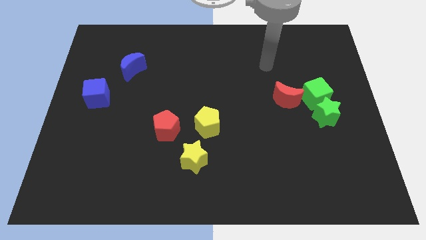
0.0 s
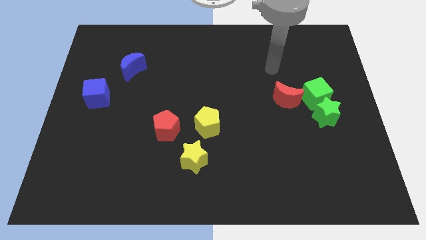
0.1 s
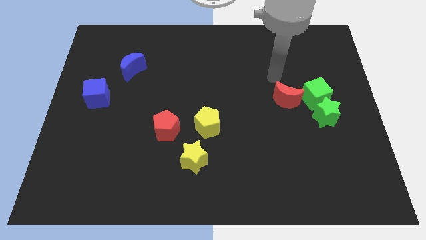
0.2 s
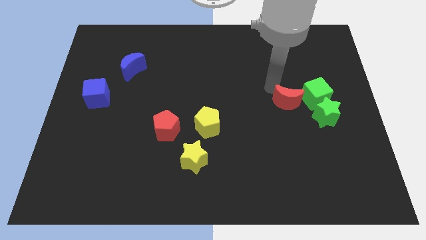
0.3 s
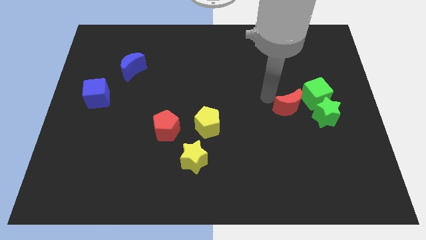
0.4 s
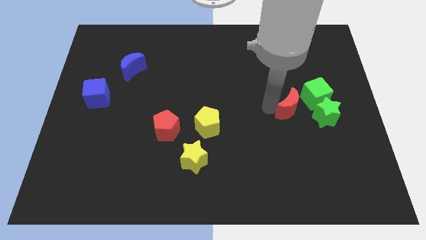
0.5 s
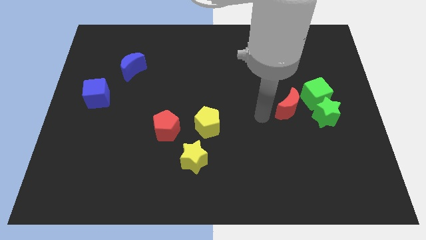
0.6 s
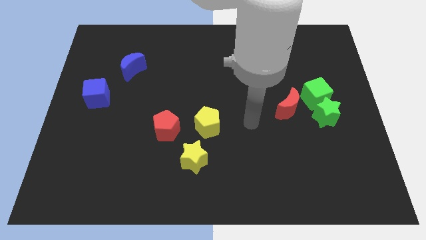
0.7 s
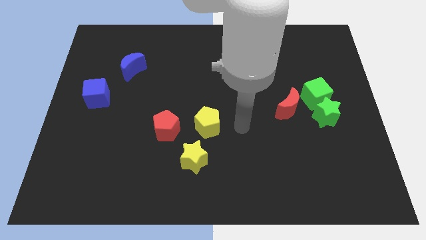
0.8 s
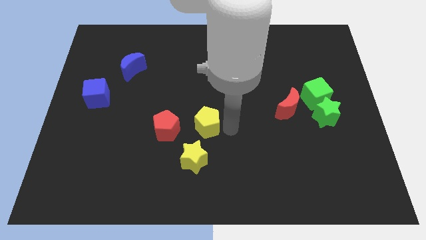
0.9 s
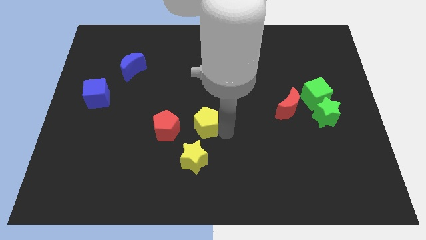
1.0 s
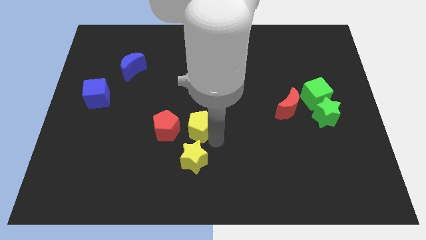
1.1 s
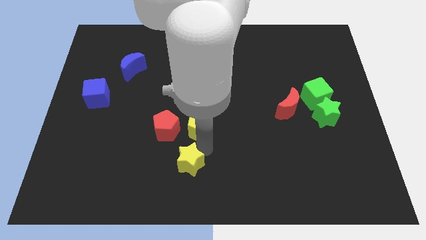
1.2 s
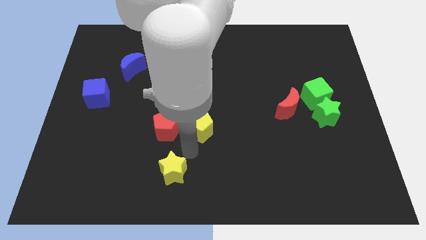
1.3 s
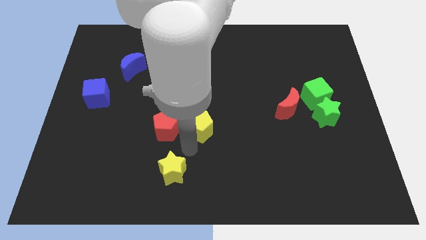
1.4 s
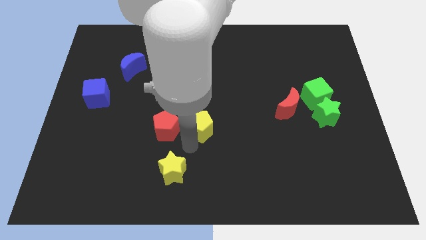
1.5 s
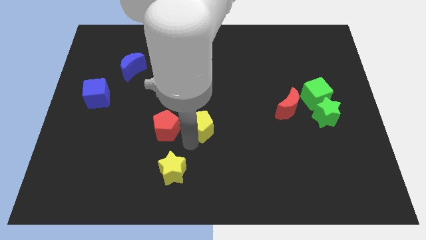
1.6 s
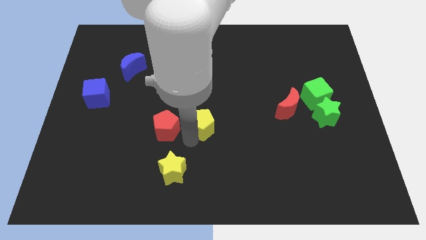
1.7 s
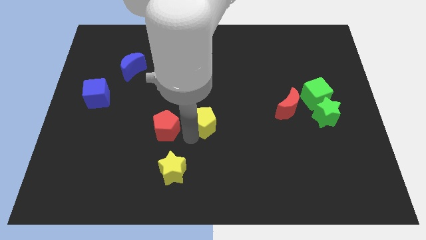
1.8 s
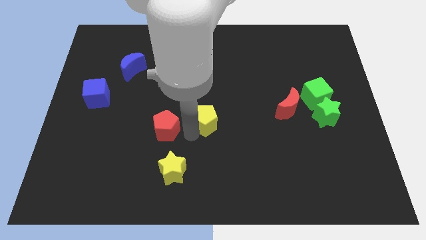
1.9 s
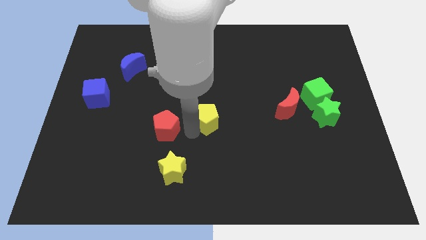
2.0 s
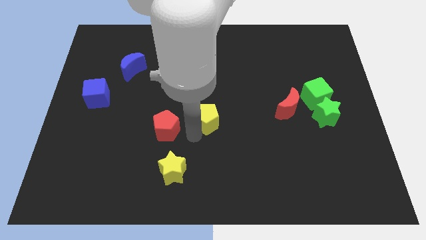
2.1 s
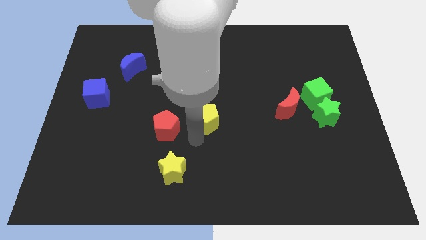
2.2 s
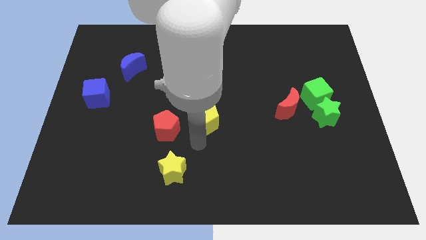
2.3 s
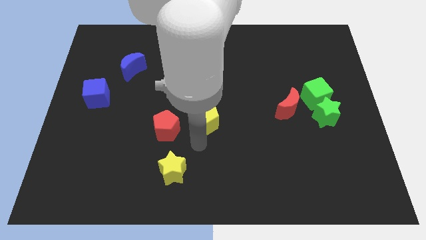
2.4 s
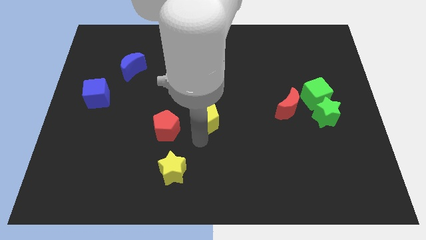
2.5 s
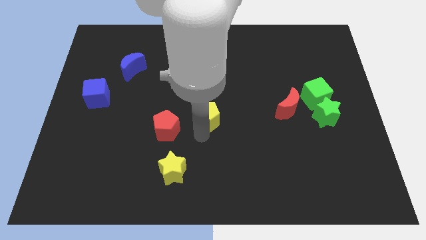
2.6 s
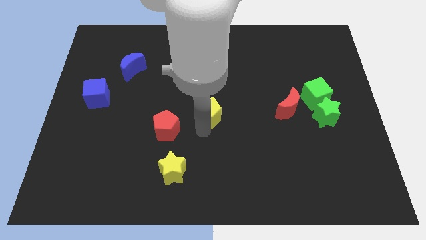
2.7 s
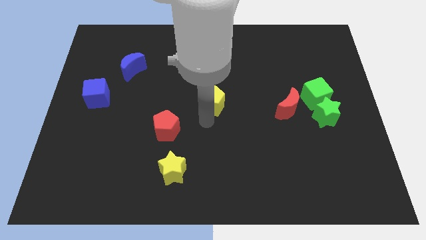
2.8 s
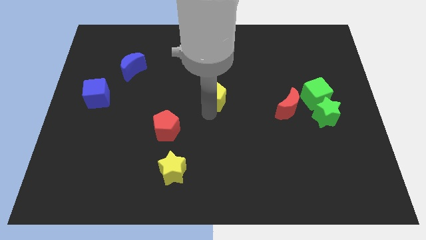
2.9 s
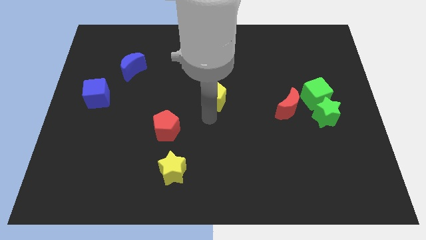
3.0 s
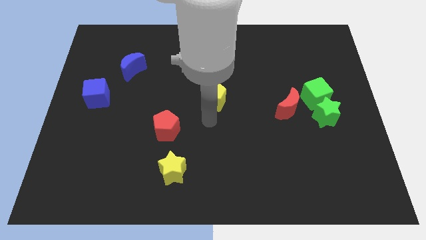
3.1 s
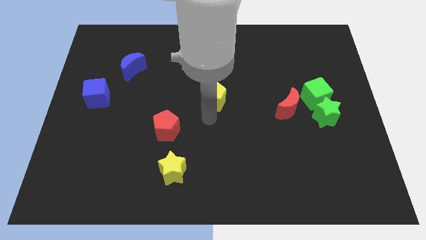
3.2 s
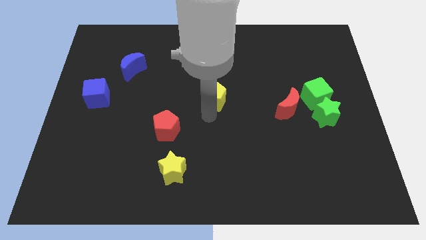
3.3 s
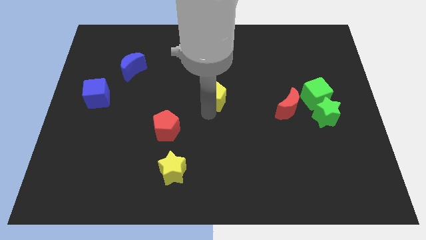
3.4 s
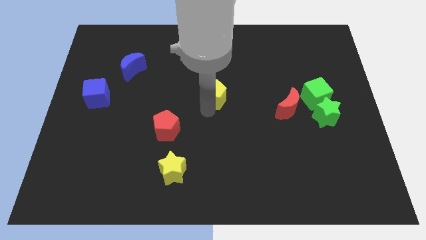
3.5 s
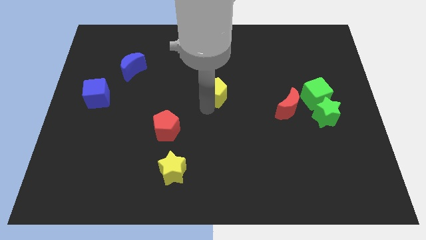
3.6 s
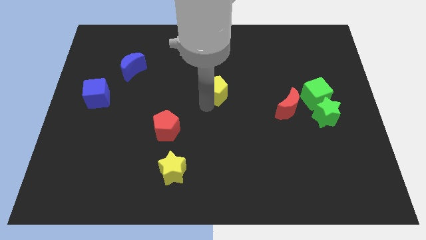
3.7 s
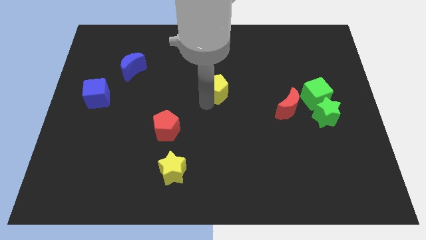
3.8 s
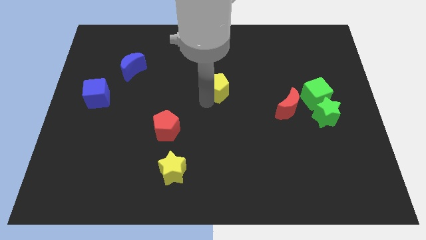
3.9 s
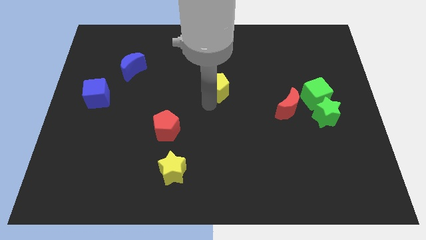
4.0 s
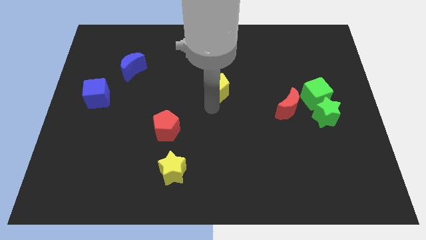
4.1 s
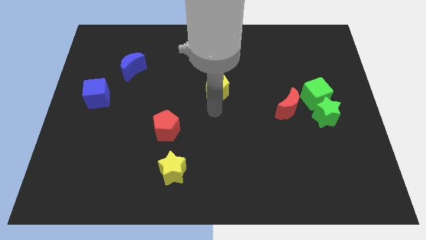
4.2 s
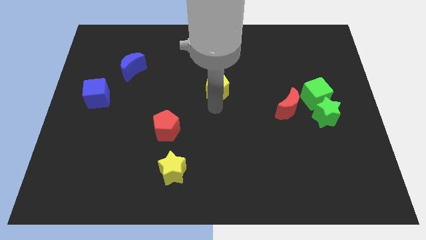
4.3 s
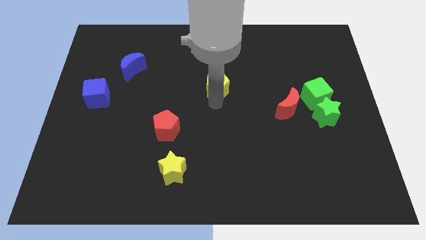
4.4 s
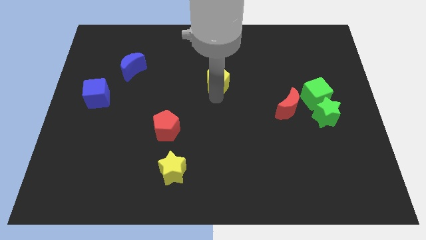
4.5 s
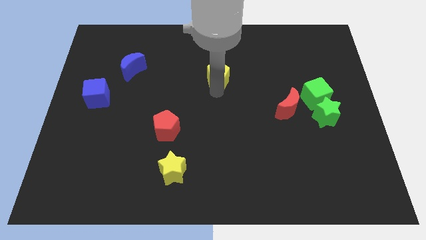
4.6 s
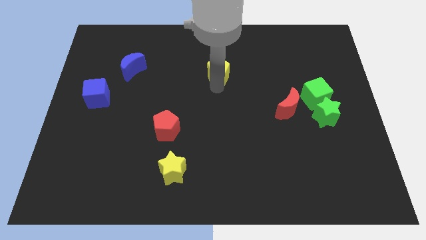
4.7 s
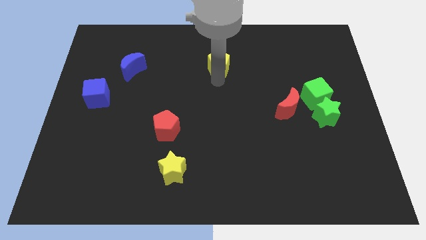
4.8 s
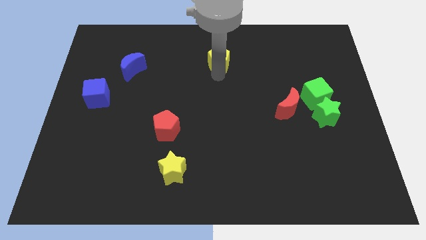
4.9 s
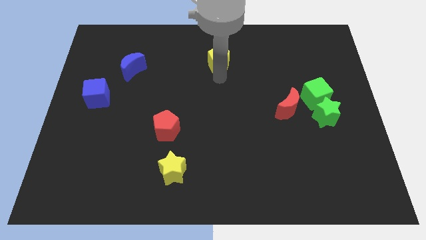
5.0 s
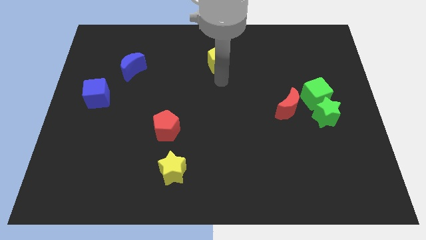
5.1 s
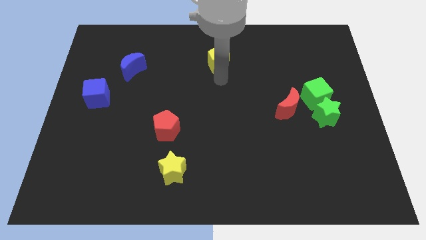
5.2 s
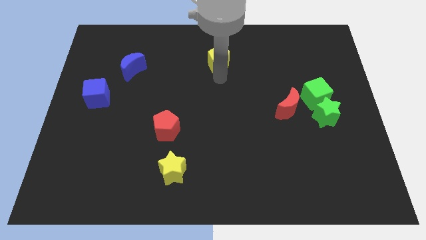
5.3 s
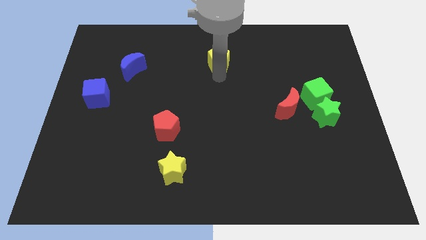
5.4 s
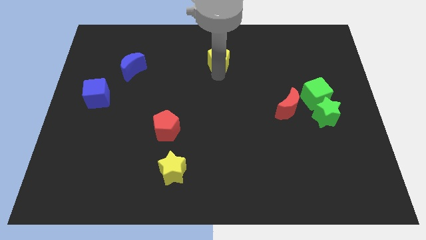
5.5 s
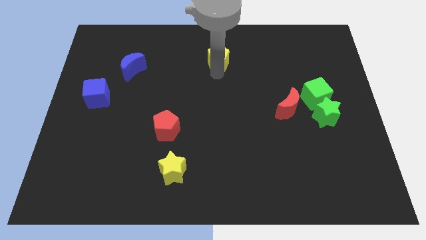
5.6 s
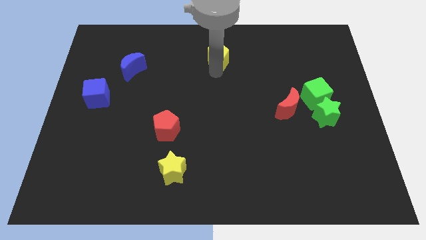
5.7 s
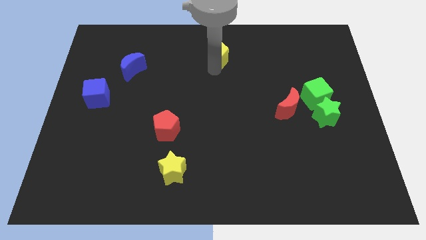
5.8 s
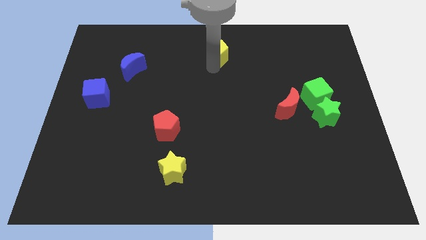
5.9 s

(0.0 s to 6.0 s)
put the yellow pentagon to the top
